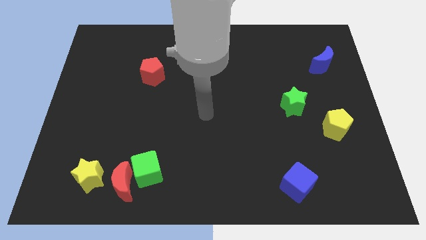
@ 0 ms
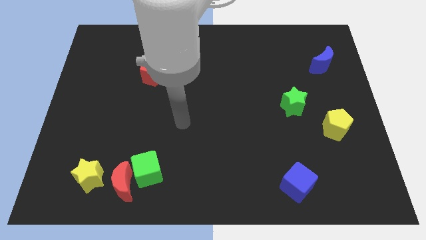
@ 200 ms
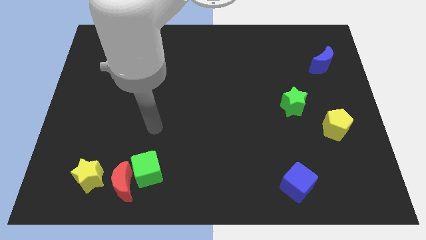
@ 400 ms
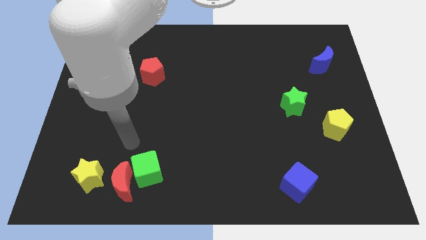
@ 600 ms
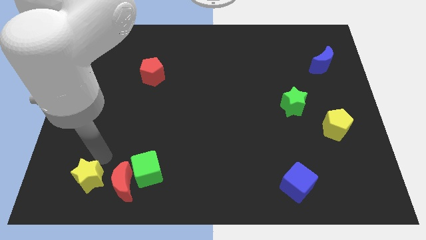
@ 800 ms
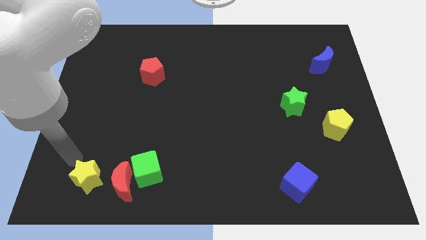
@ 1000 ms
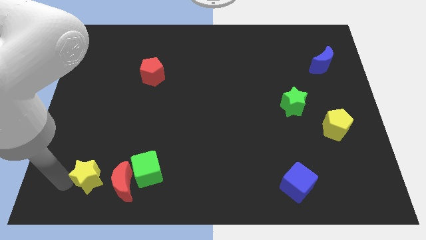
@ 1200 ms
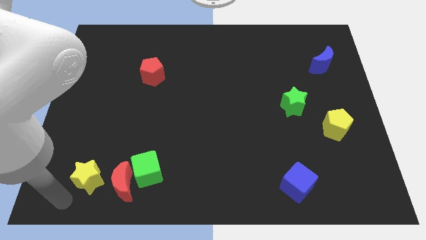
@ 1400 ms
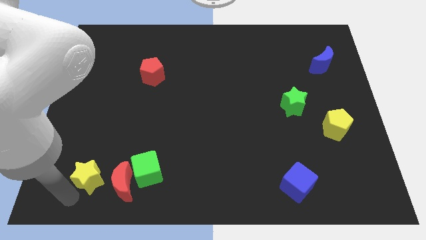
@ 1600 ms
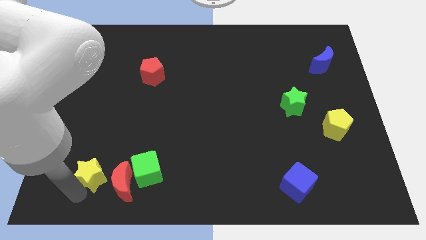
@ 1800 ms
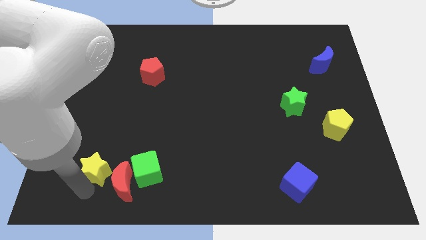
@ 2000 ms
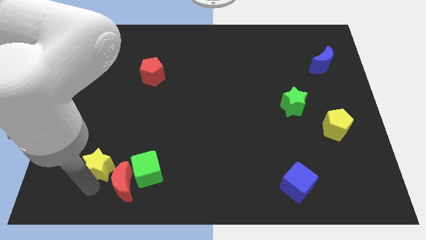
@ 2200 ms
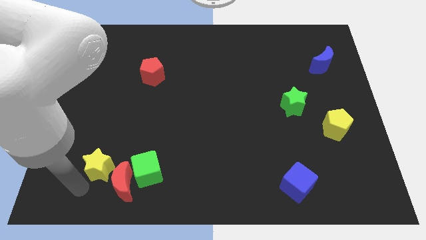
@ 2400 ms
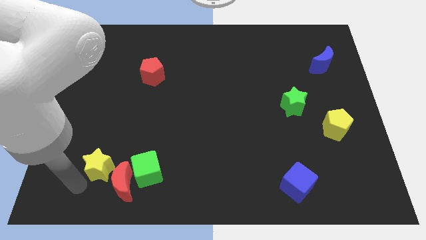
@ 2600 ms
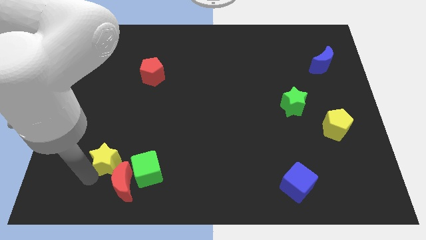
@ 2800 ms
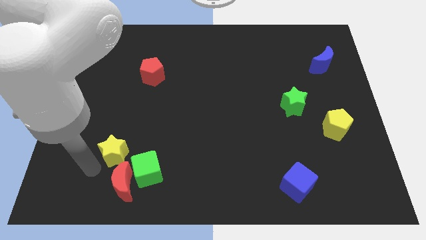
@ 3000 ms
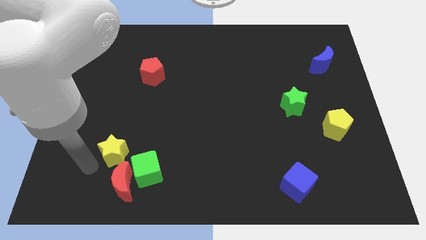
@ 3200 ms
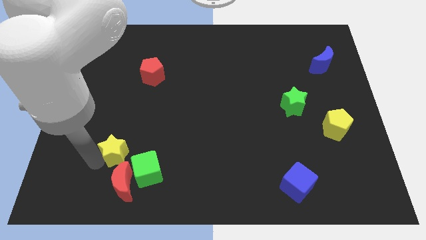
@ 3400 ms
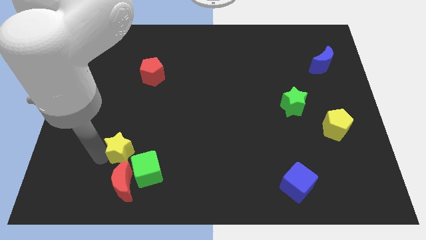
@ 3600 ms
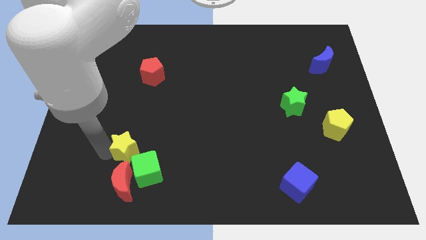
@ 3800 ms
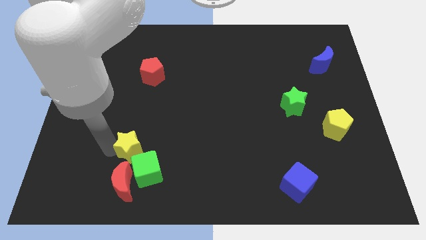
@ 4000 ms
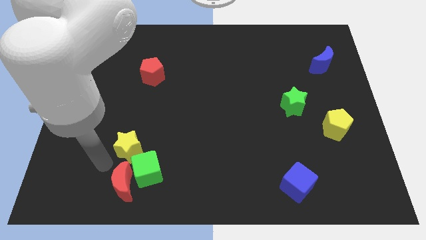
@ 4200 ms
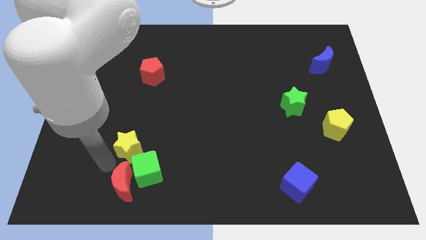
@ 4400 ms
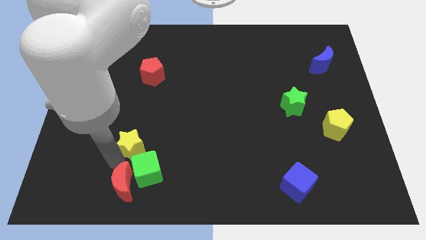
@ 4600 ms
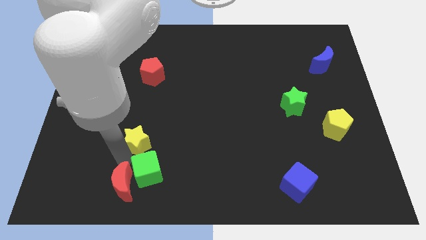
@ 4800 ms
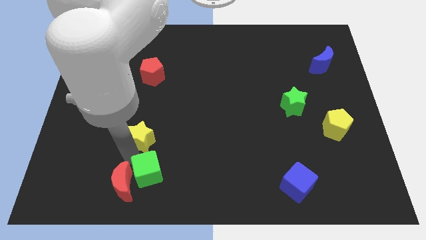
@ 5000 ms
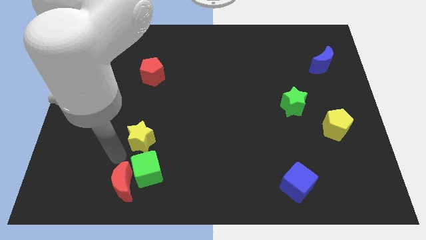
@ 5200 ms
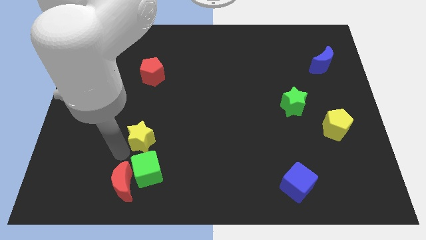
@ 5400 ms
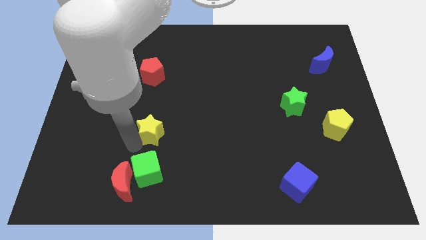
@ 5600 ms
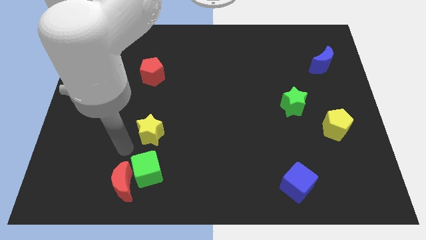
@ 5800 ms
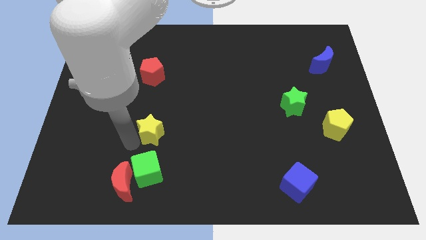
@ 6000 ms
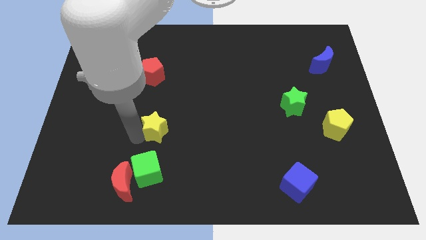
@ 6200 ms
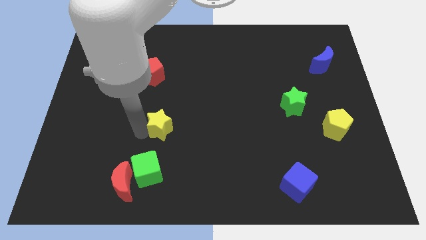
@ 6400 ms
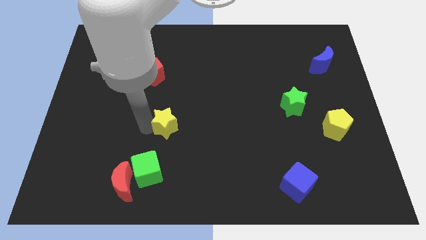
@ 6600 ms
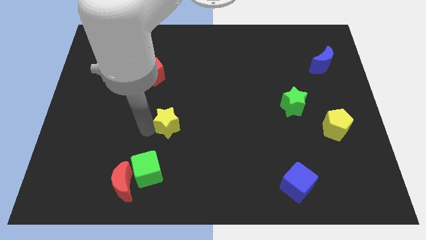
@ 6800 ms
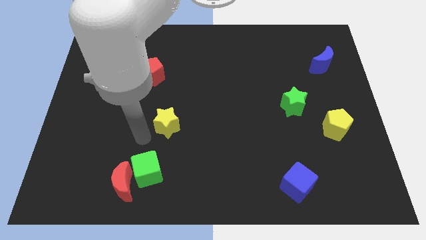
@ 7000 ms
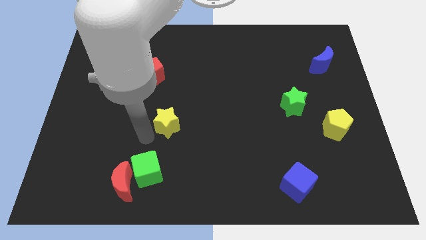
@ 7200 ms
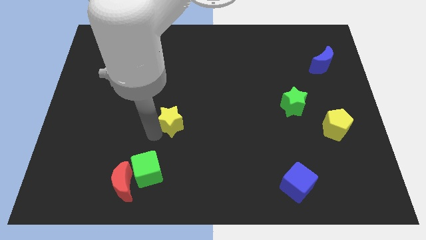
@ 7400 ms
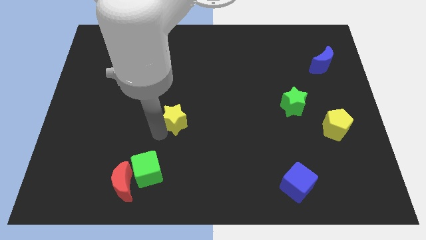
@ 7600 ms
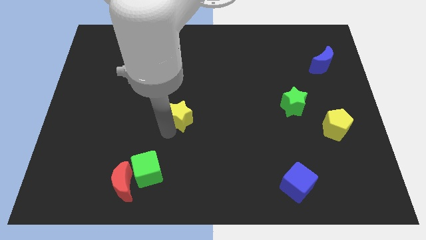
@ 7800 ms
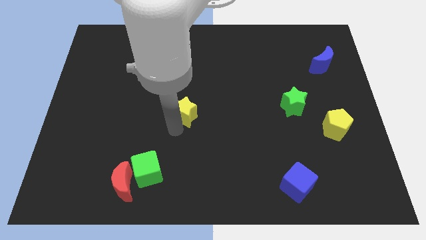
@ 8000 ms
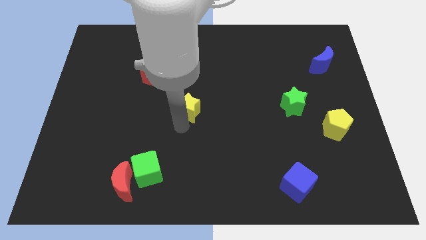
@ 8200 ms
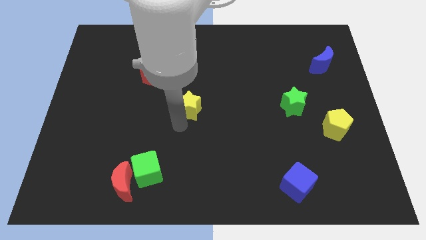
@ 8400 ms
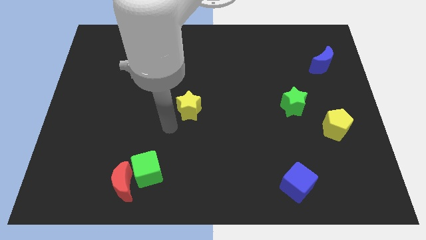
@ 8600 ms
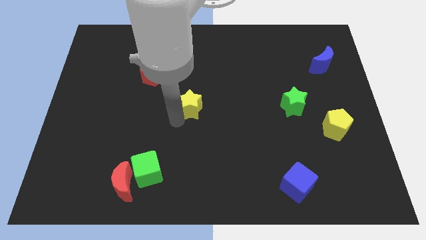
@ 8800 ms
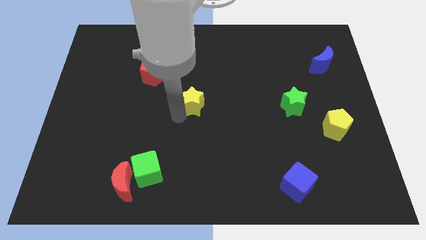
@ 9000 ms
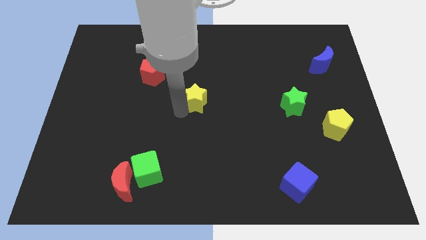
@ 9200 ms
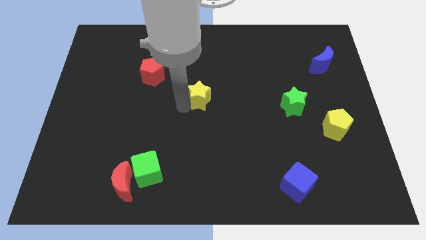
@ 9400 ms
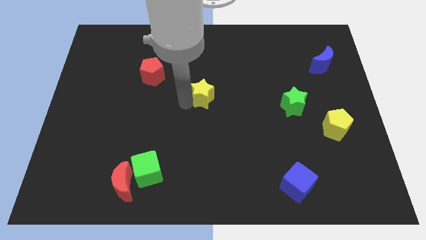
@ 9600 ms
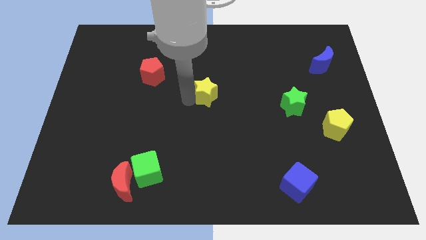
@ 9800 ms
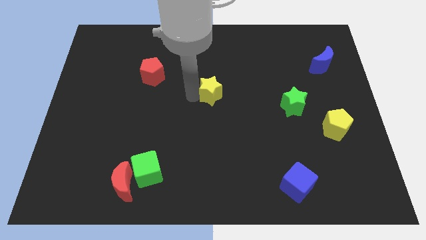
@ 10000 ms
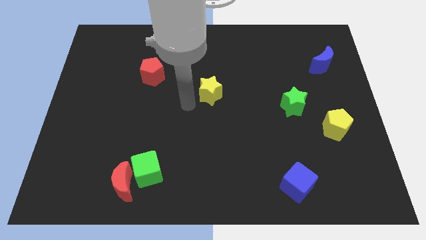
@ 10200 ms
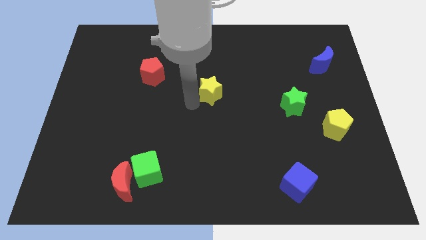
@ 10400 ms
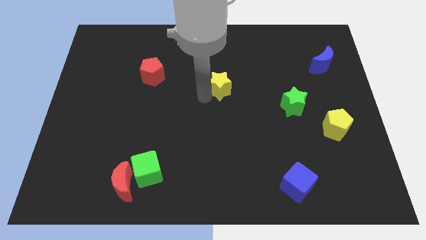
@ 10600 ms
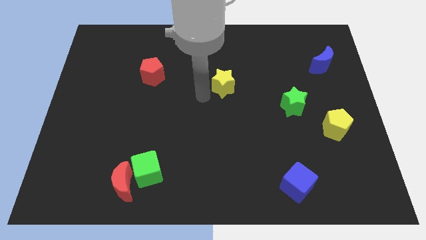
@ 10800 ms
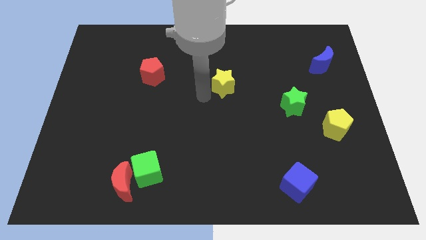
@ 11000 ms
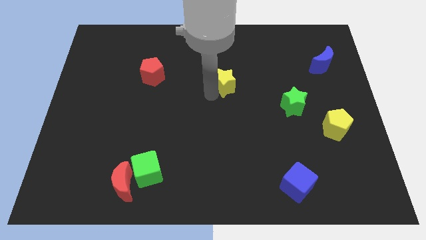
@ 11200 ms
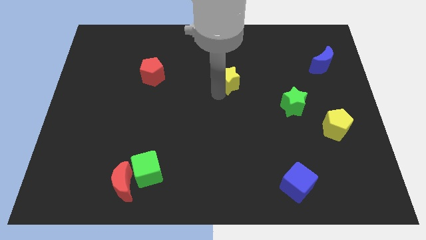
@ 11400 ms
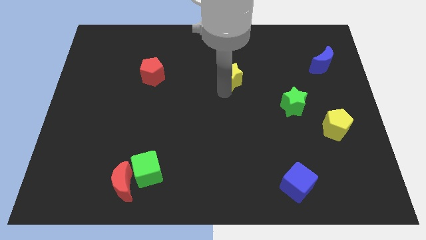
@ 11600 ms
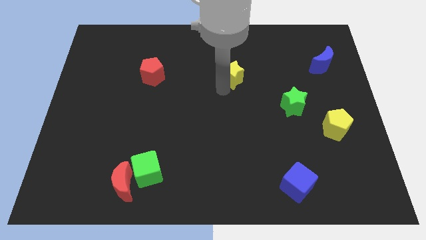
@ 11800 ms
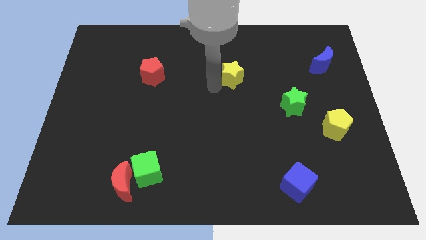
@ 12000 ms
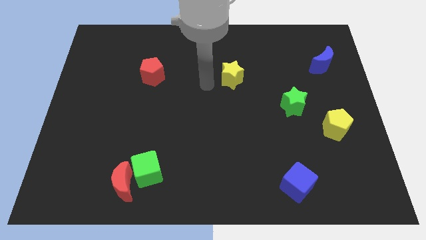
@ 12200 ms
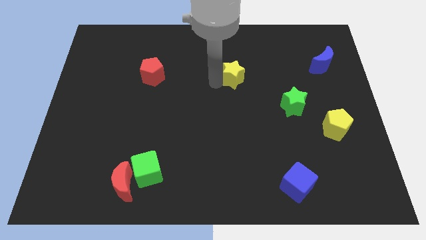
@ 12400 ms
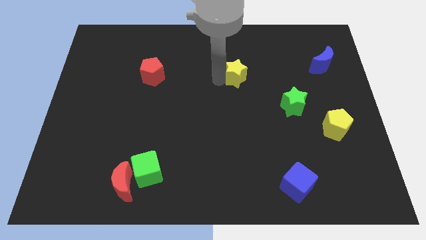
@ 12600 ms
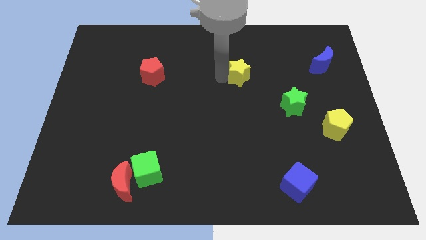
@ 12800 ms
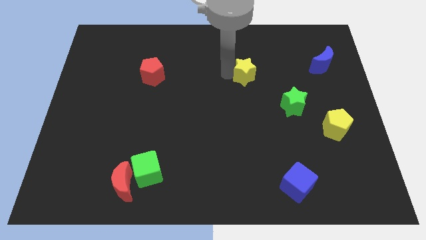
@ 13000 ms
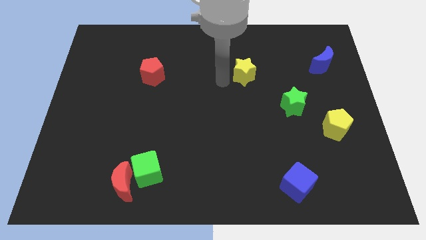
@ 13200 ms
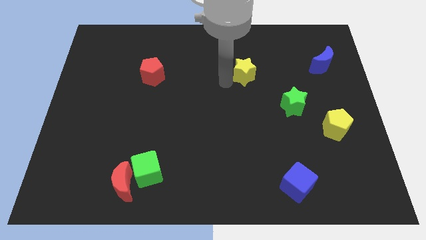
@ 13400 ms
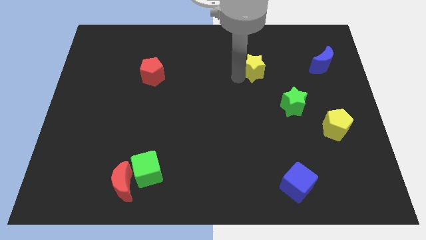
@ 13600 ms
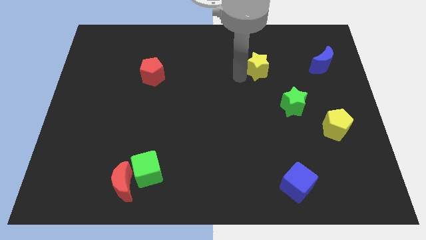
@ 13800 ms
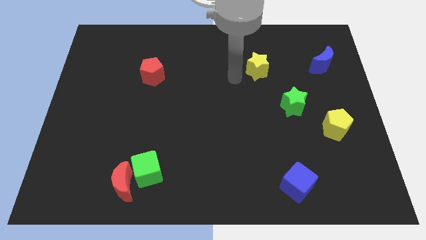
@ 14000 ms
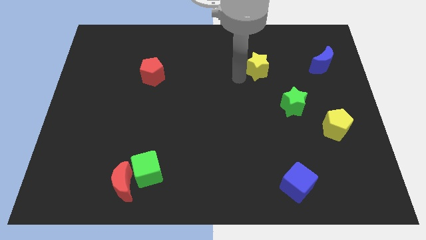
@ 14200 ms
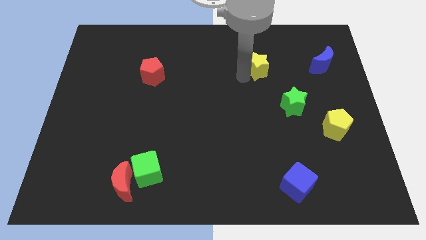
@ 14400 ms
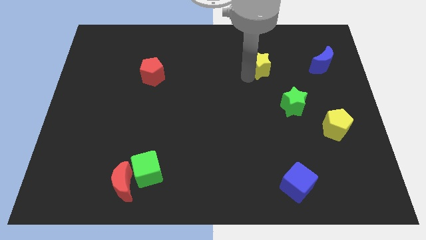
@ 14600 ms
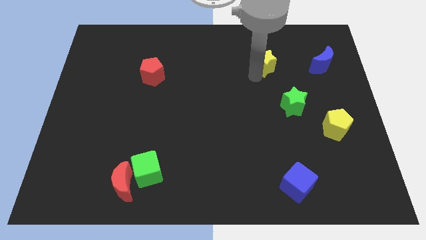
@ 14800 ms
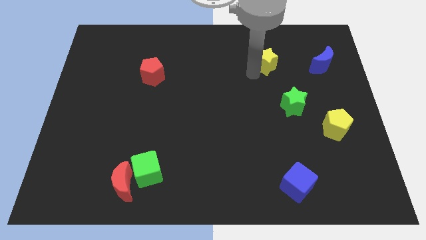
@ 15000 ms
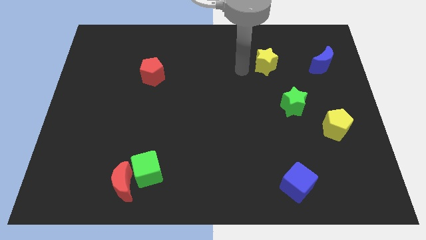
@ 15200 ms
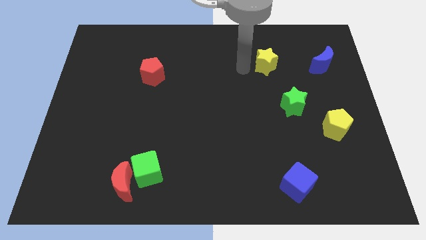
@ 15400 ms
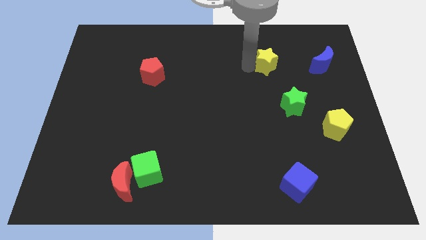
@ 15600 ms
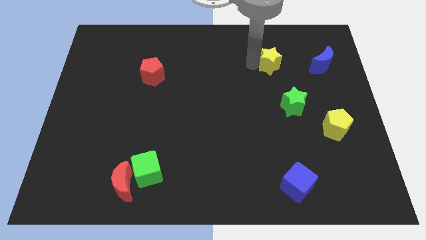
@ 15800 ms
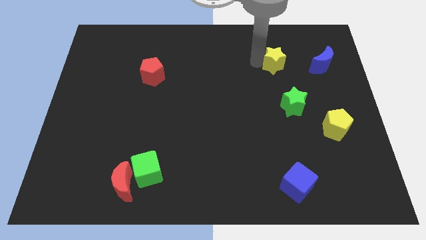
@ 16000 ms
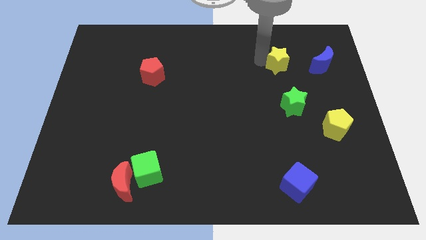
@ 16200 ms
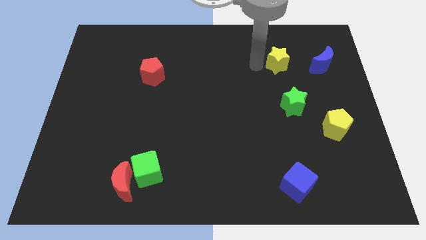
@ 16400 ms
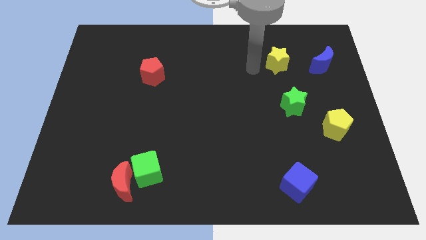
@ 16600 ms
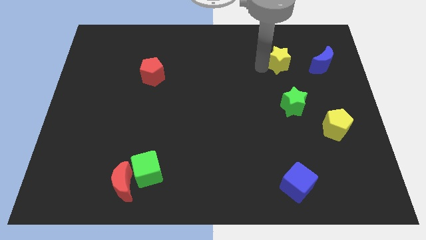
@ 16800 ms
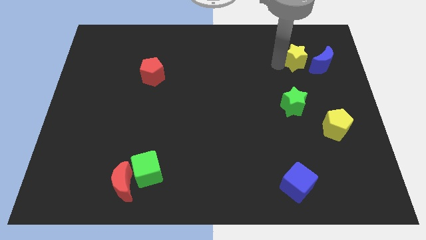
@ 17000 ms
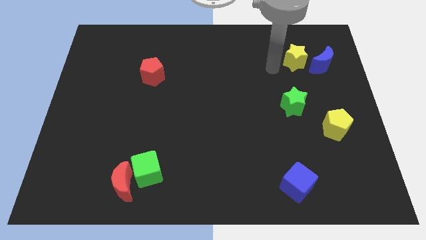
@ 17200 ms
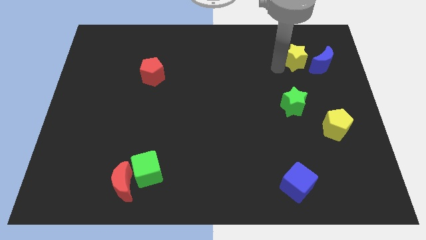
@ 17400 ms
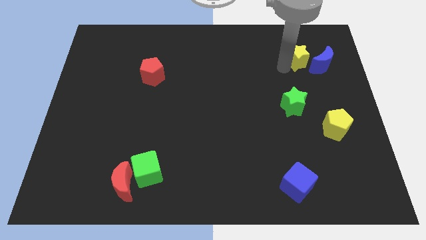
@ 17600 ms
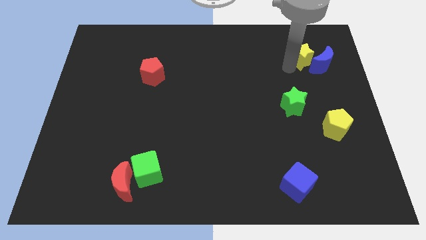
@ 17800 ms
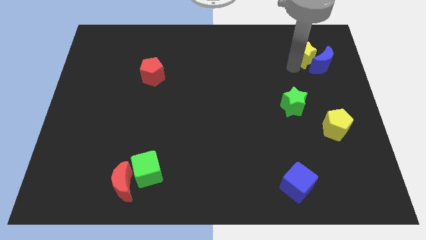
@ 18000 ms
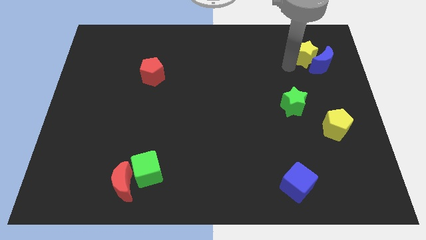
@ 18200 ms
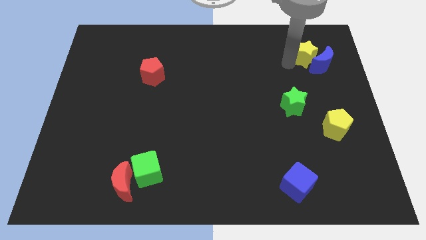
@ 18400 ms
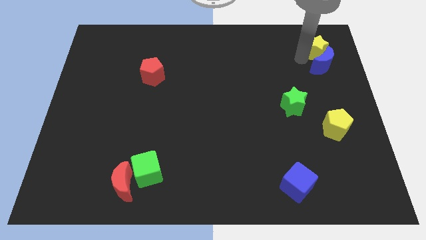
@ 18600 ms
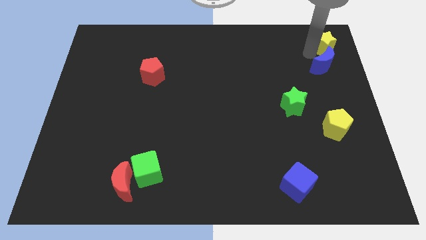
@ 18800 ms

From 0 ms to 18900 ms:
slide the yellow star to the top right
